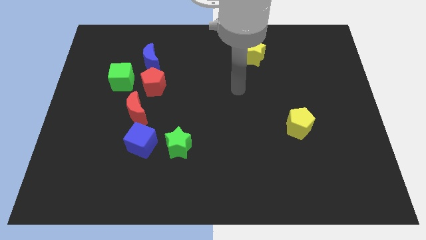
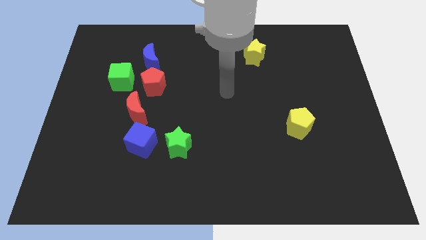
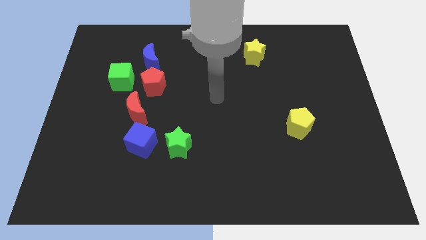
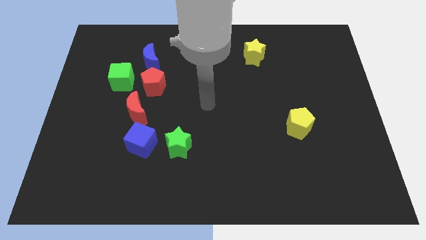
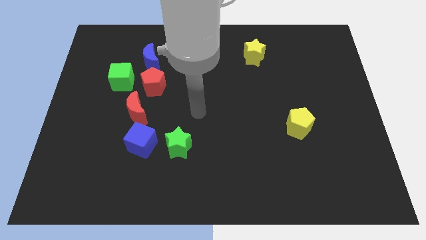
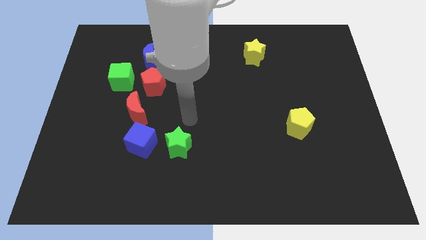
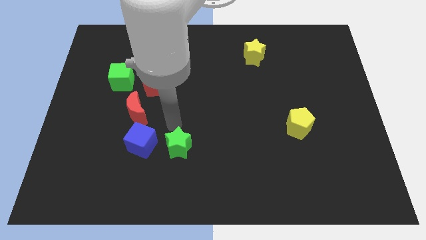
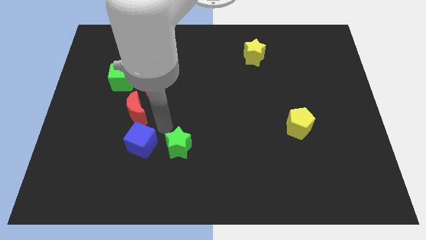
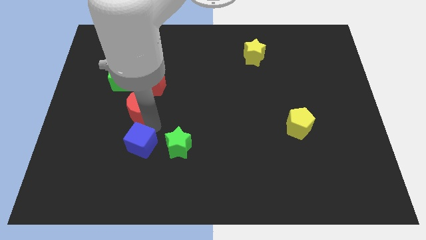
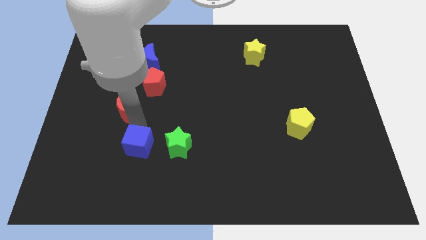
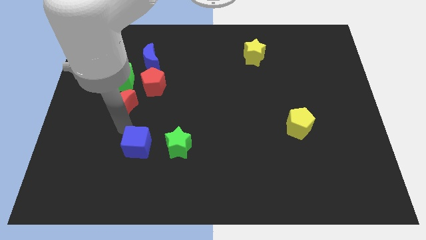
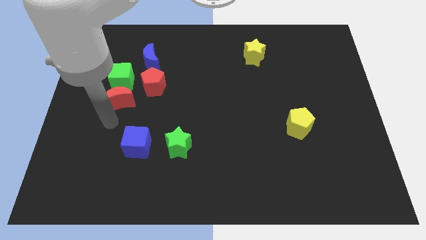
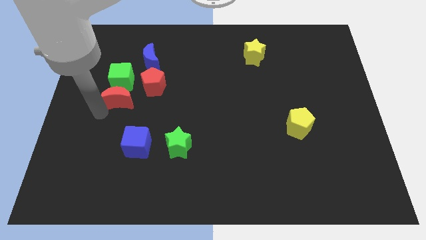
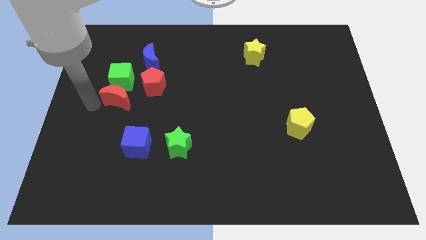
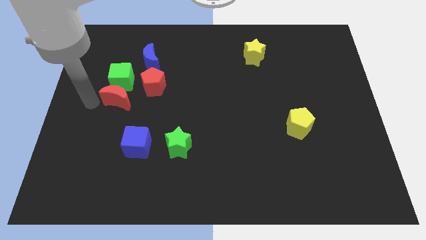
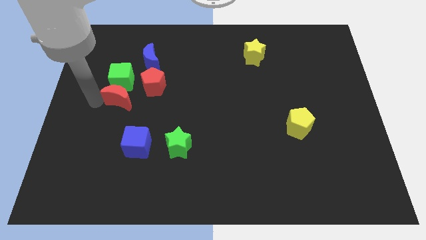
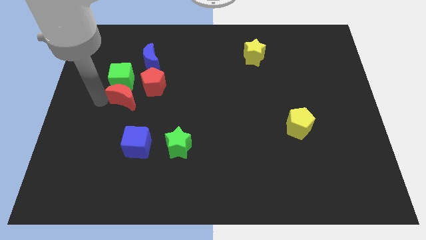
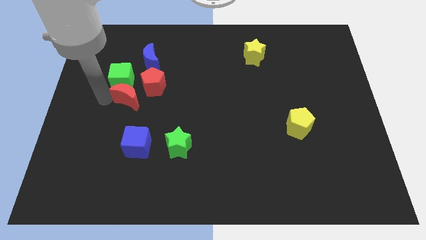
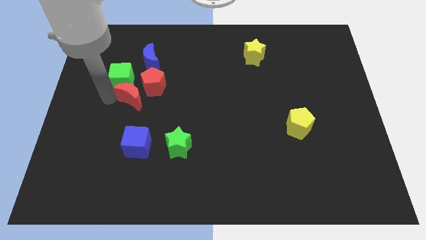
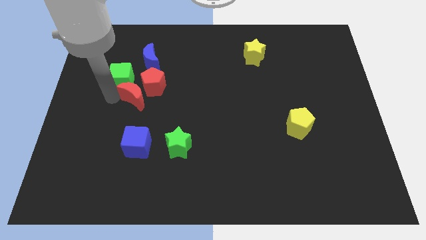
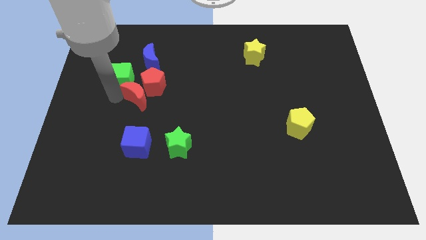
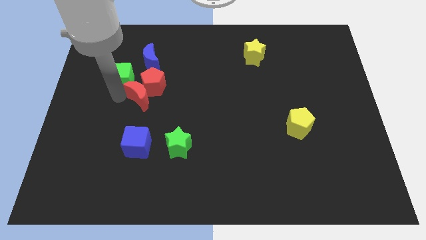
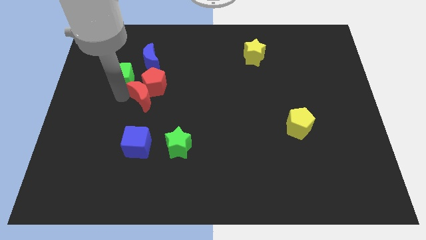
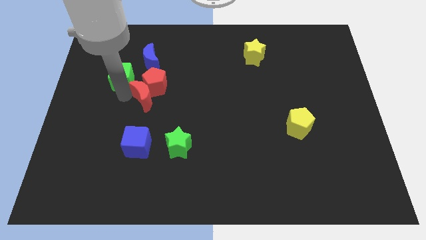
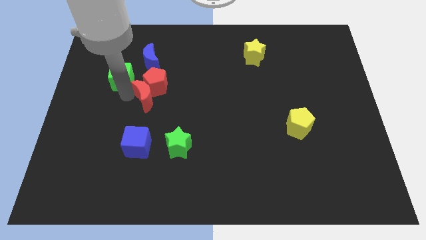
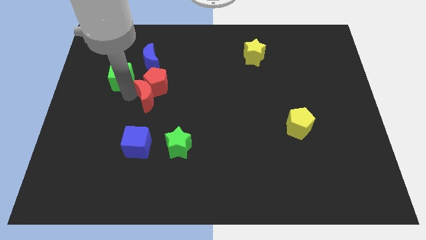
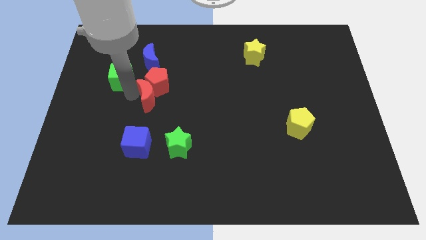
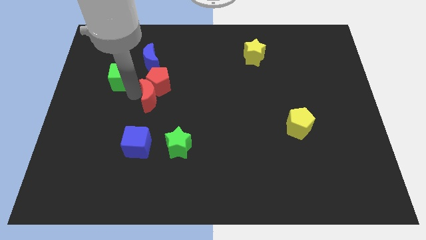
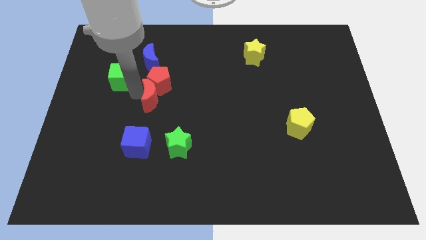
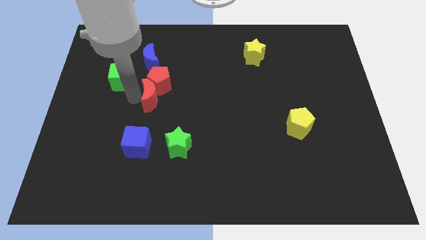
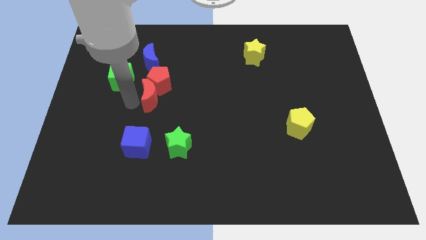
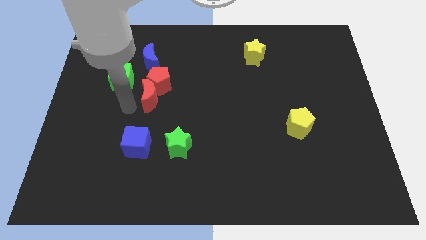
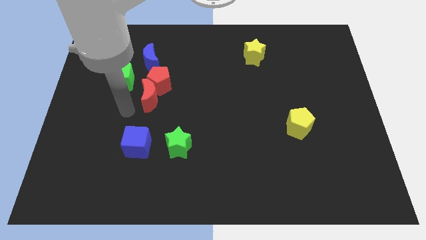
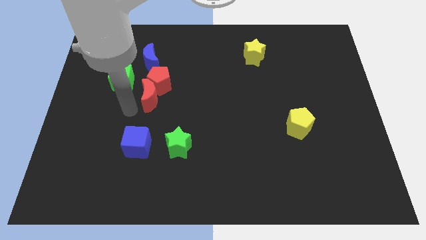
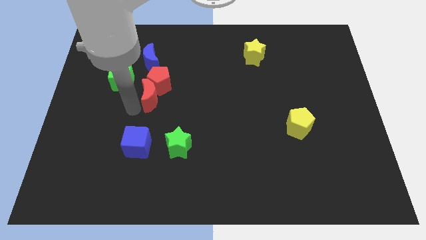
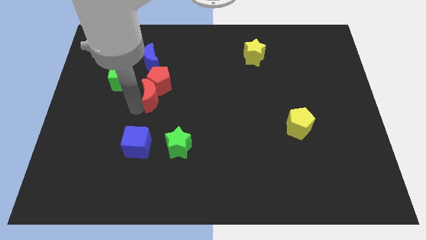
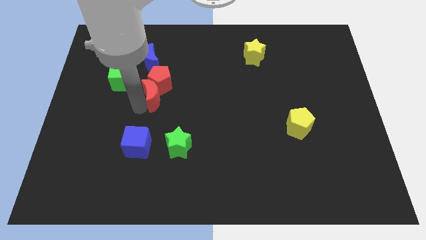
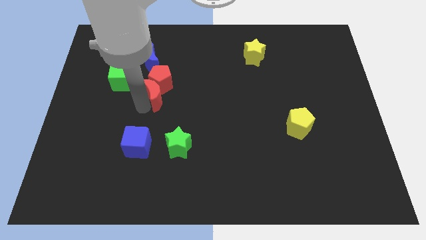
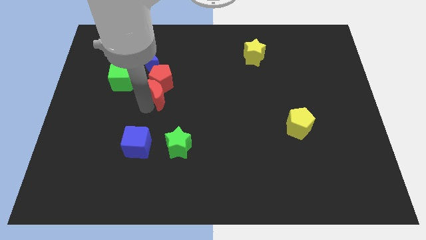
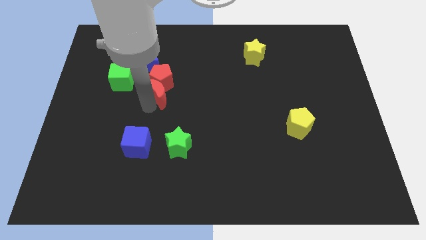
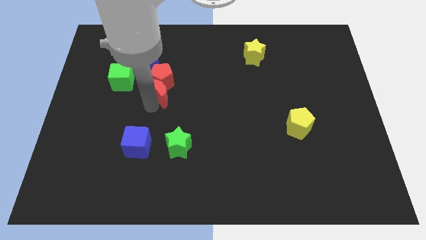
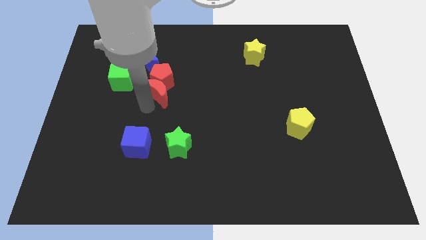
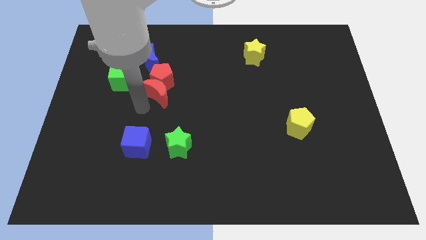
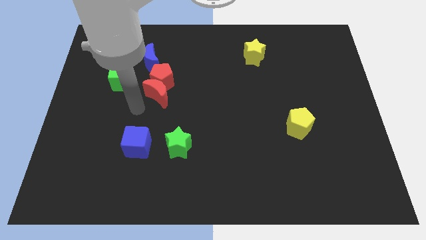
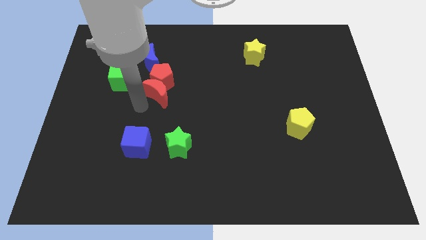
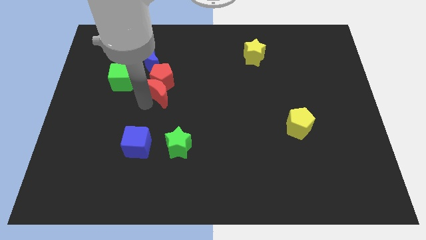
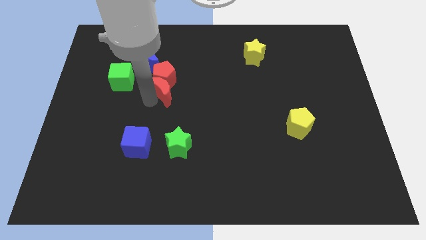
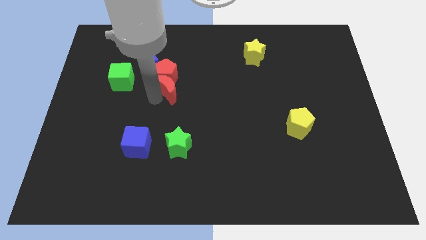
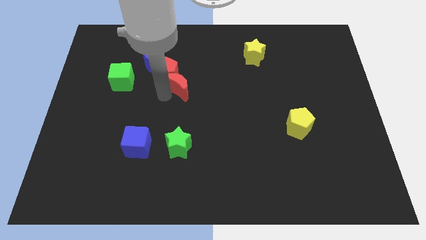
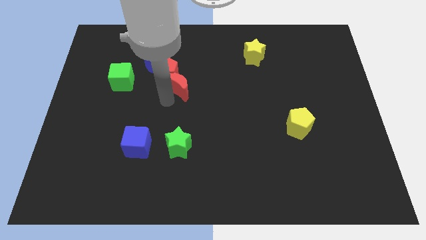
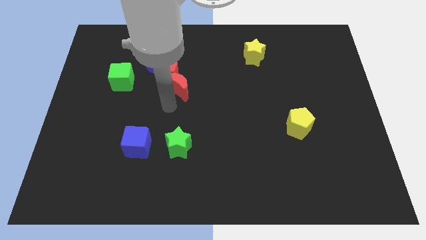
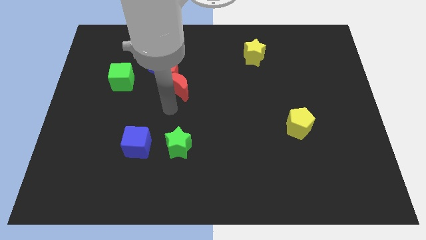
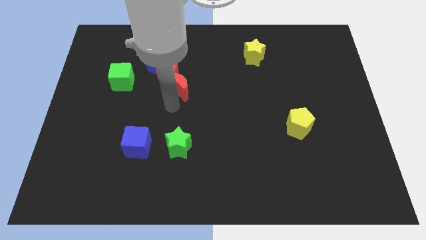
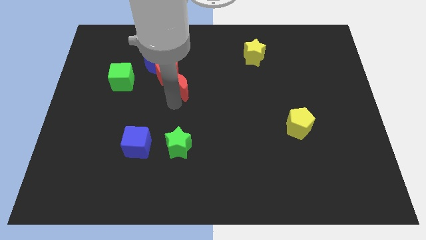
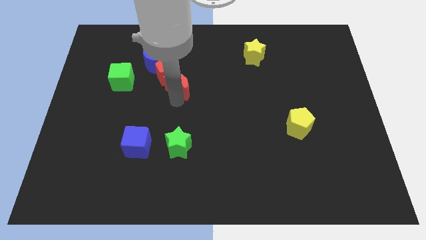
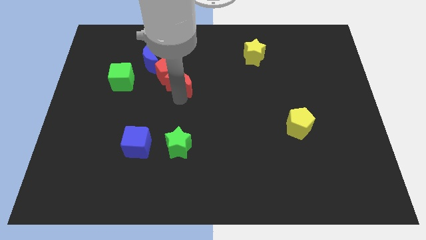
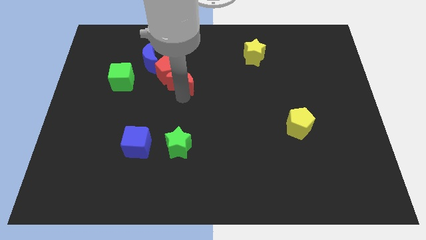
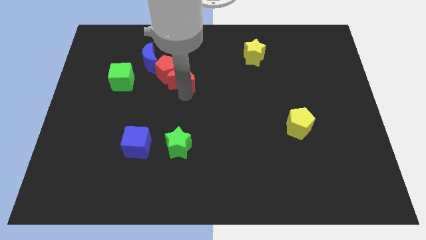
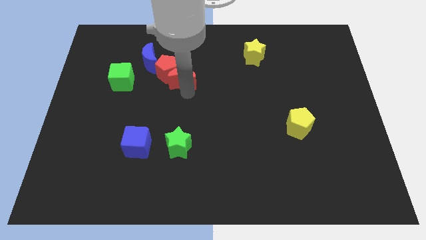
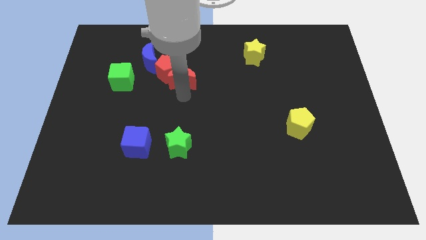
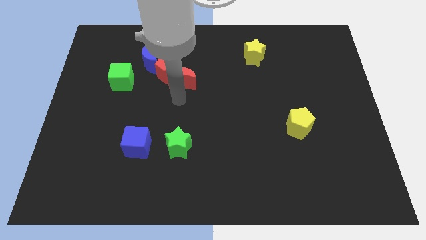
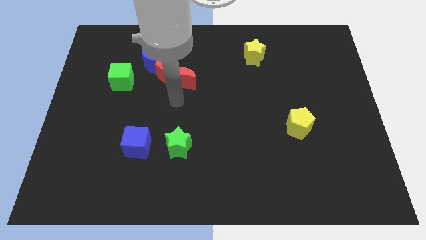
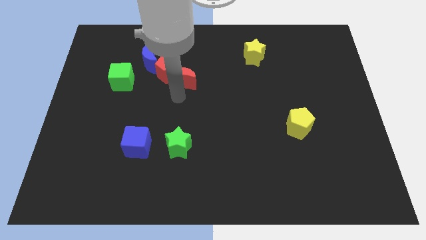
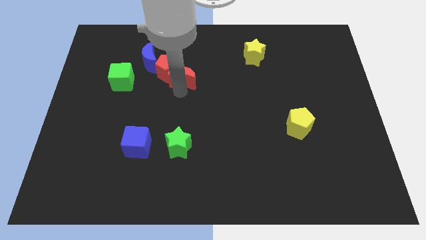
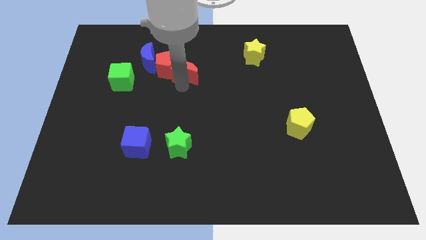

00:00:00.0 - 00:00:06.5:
move the red moon to the right side of the blue moon
